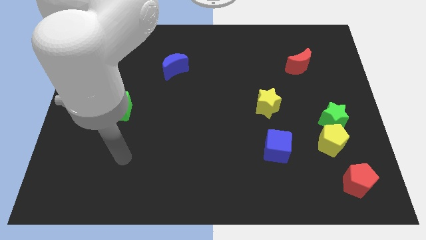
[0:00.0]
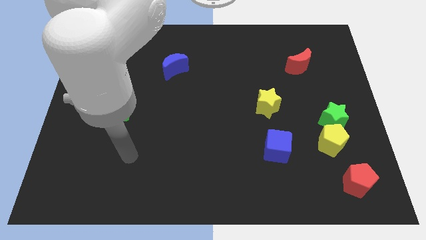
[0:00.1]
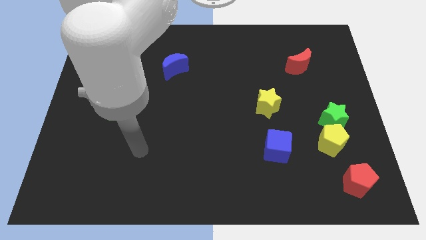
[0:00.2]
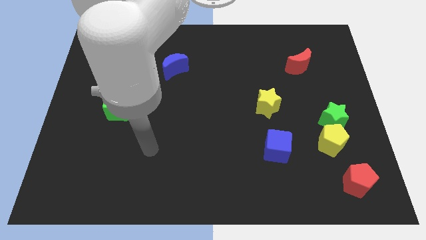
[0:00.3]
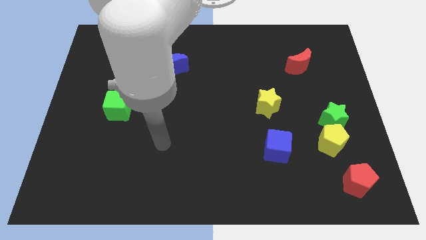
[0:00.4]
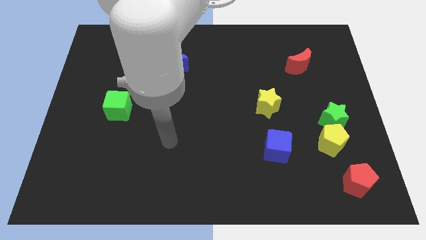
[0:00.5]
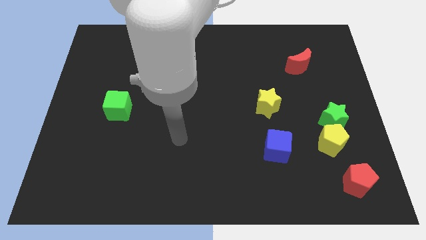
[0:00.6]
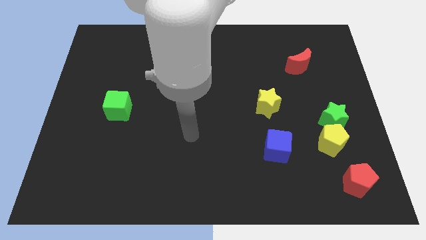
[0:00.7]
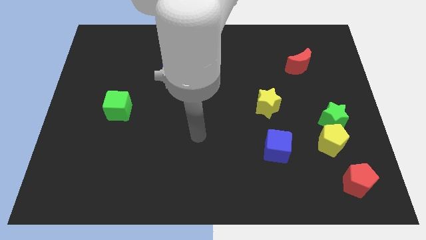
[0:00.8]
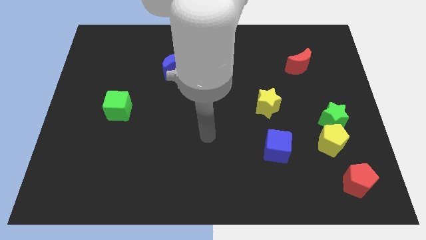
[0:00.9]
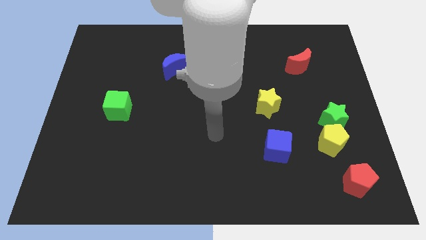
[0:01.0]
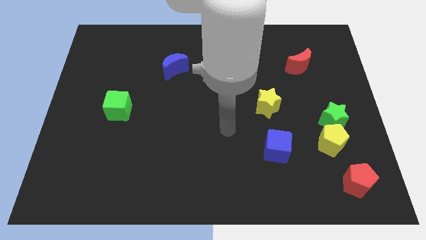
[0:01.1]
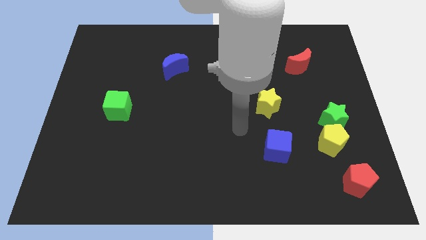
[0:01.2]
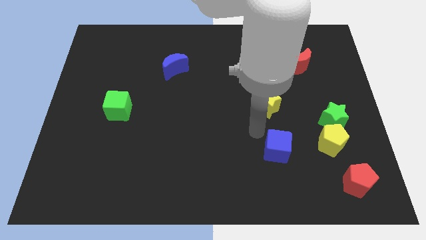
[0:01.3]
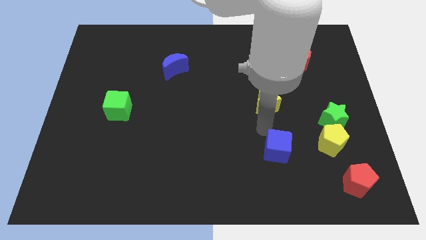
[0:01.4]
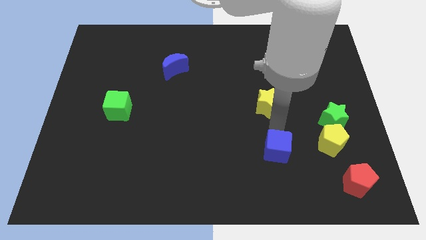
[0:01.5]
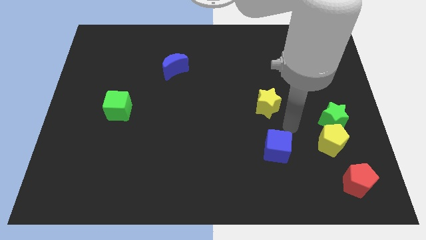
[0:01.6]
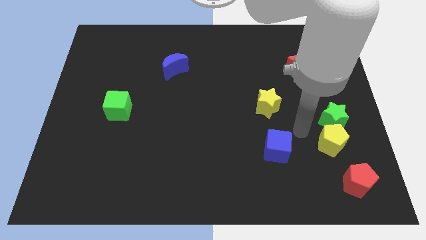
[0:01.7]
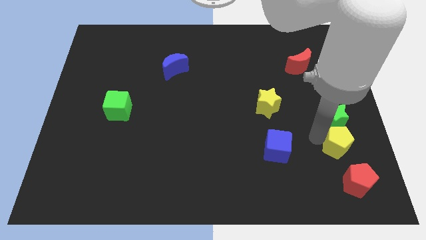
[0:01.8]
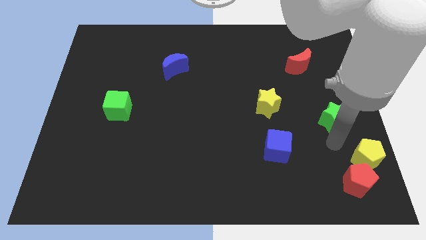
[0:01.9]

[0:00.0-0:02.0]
separate the green star from the yellow pentagon

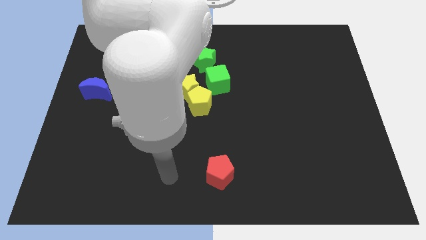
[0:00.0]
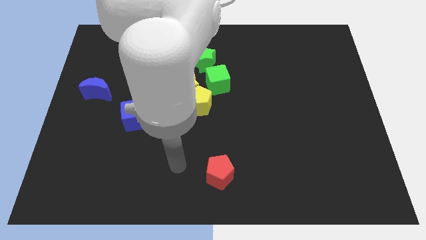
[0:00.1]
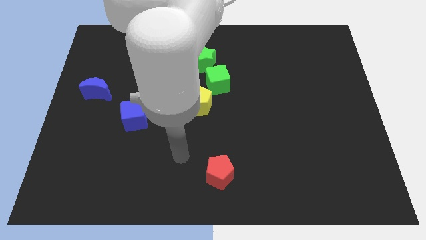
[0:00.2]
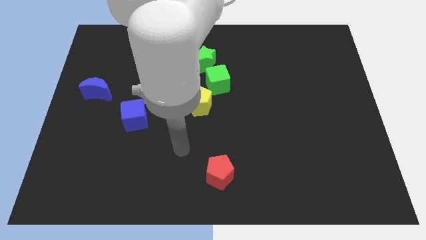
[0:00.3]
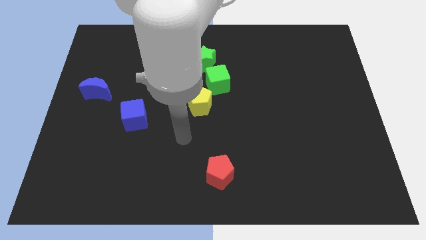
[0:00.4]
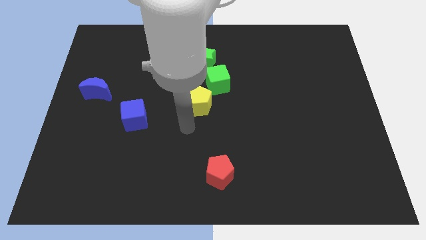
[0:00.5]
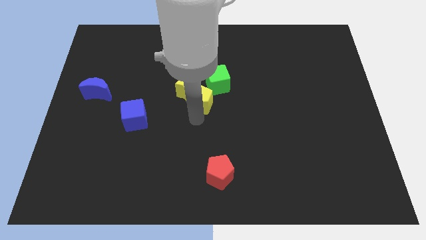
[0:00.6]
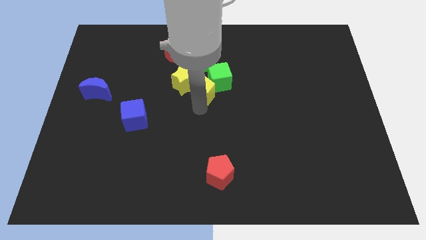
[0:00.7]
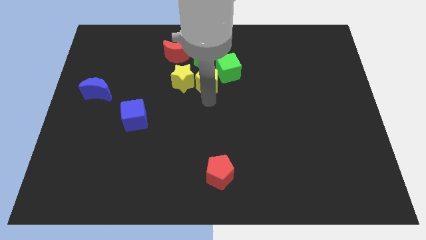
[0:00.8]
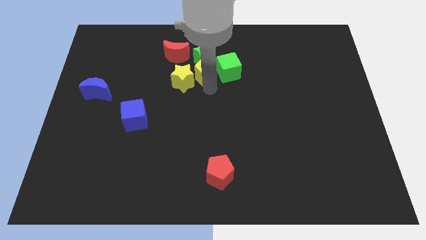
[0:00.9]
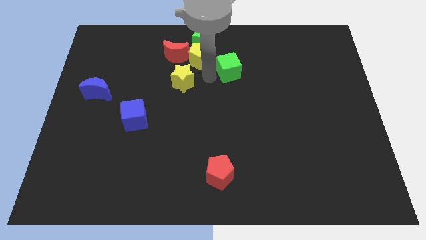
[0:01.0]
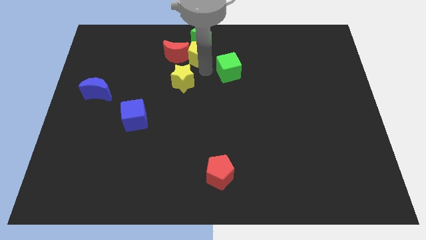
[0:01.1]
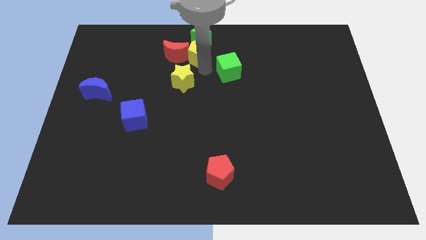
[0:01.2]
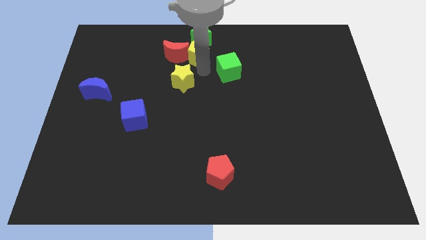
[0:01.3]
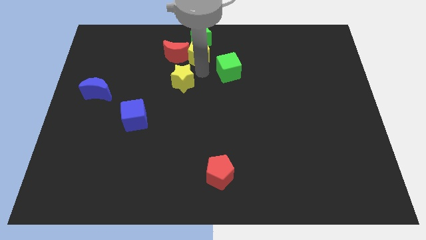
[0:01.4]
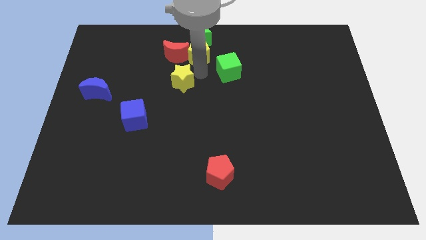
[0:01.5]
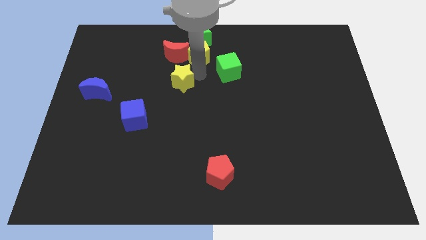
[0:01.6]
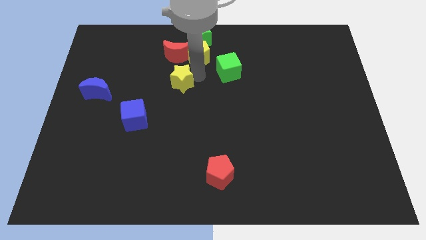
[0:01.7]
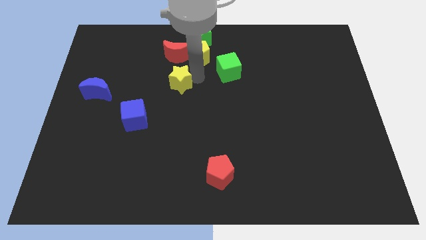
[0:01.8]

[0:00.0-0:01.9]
separate the yellow star from the yellow pentagon and green cube

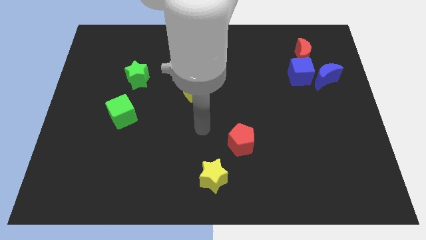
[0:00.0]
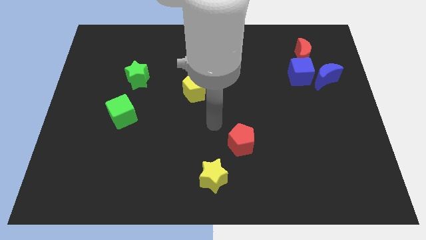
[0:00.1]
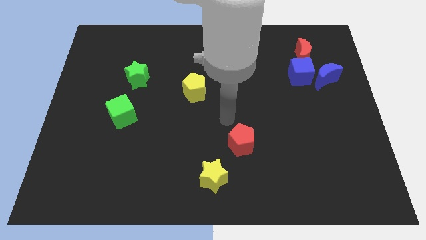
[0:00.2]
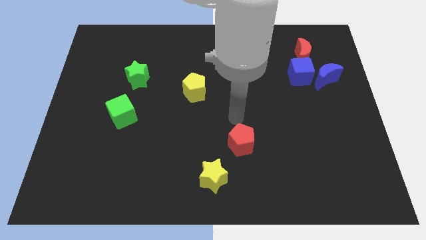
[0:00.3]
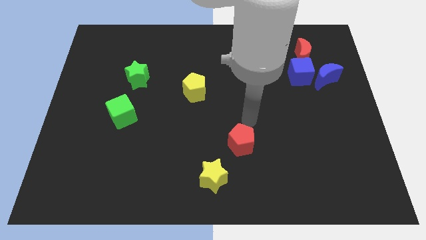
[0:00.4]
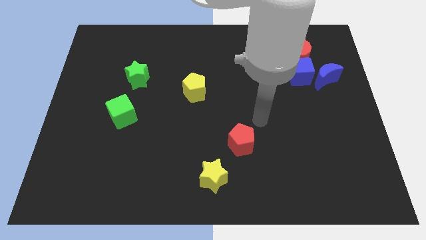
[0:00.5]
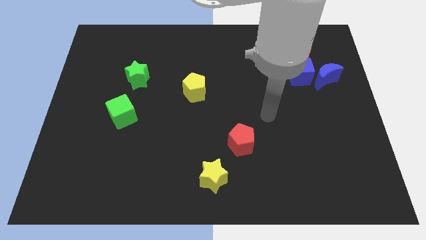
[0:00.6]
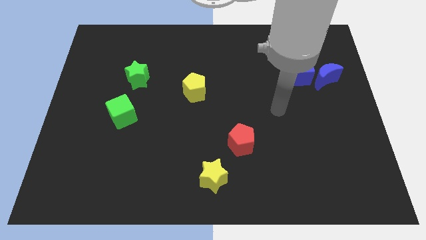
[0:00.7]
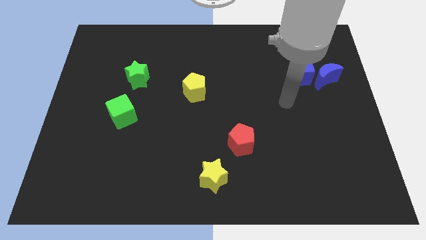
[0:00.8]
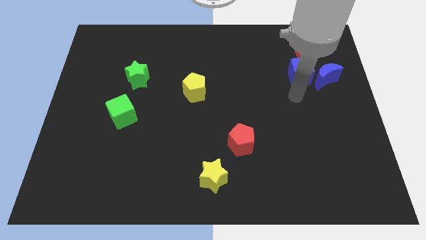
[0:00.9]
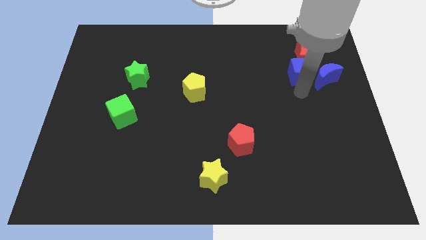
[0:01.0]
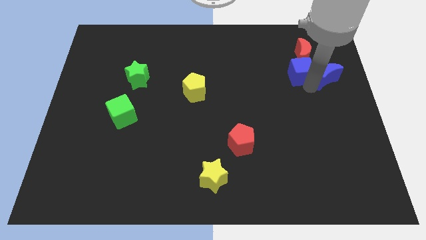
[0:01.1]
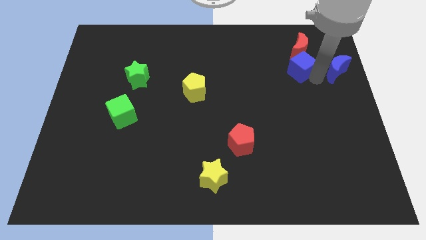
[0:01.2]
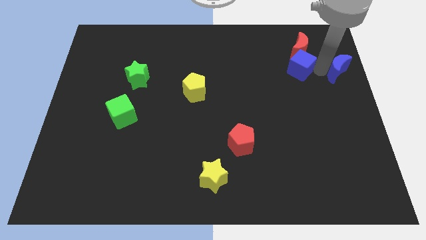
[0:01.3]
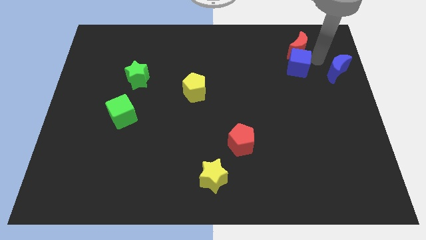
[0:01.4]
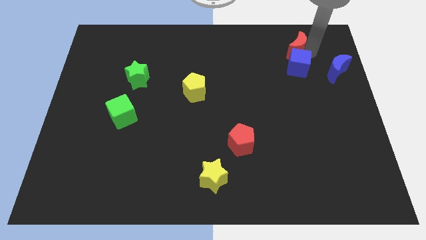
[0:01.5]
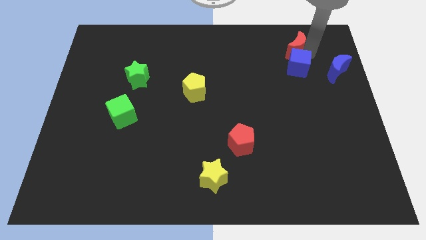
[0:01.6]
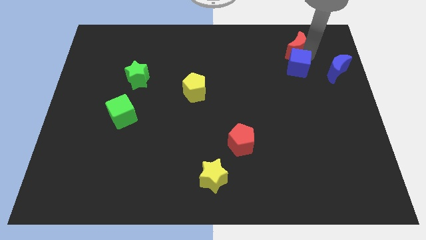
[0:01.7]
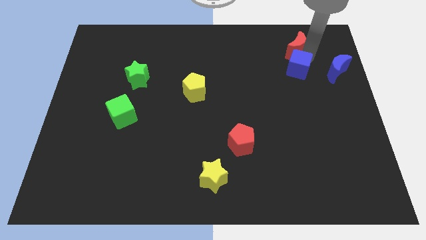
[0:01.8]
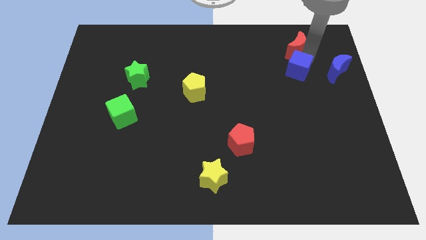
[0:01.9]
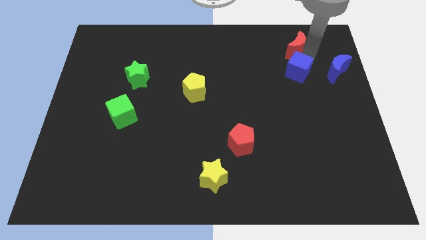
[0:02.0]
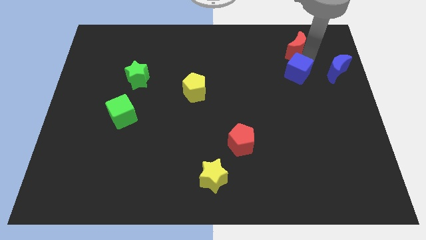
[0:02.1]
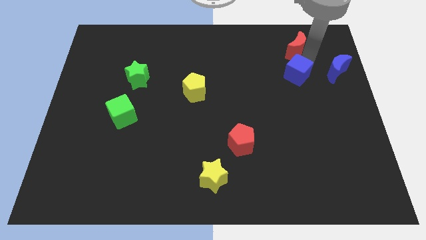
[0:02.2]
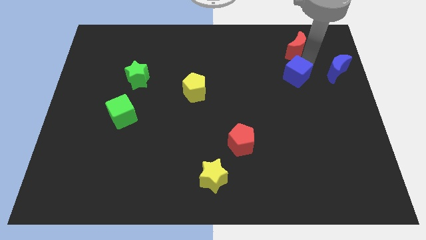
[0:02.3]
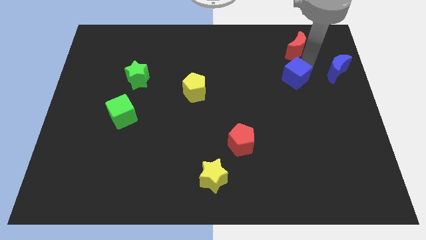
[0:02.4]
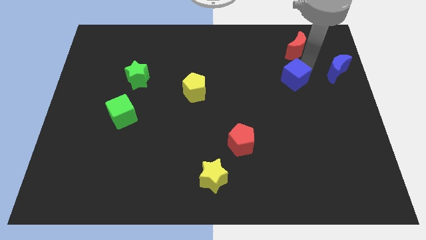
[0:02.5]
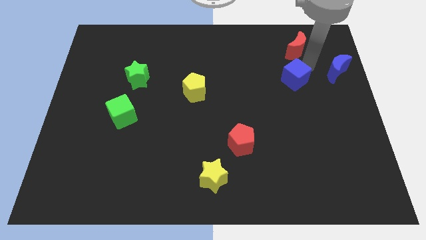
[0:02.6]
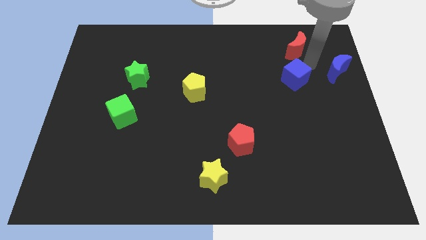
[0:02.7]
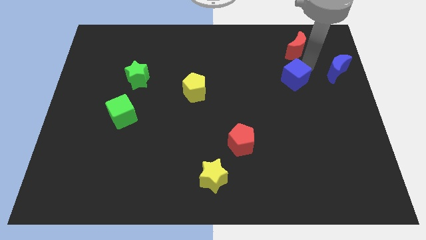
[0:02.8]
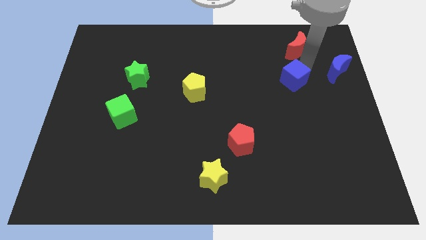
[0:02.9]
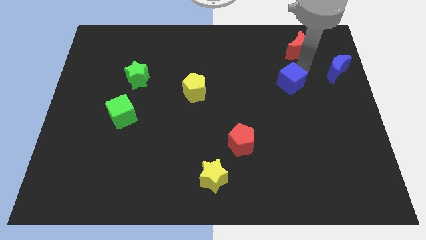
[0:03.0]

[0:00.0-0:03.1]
pull the blue cube apart from the blue moon and red moon

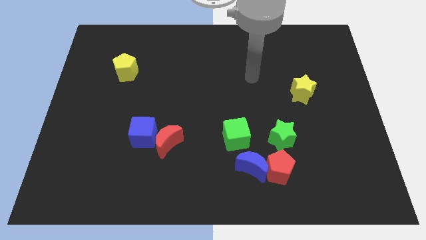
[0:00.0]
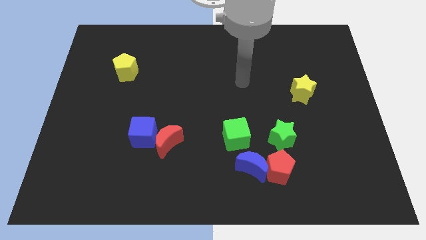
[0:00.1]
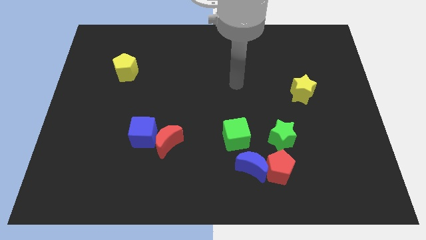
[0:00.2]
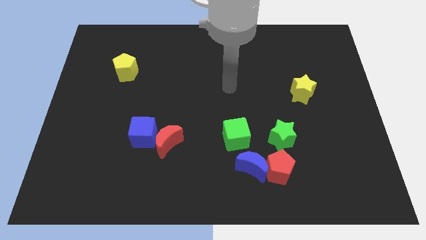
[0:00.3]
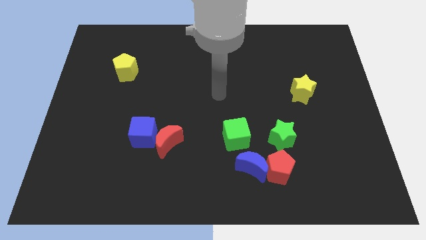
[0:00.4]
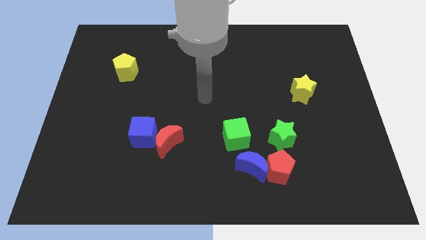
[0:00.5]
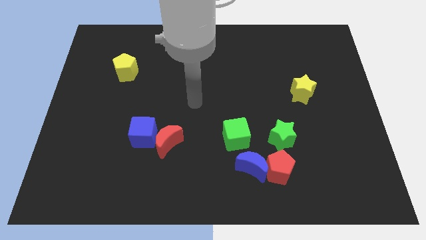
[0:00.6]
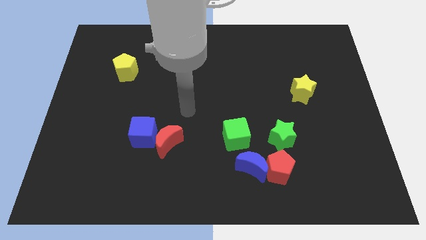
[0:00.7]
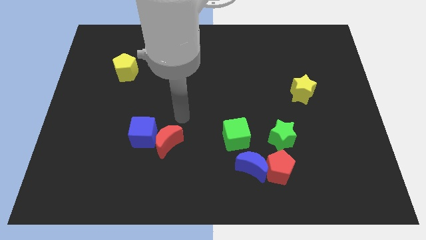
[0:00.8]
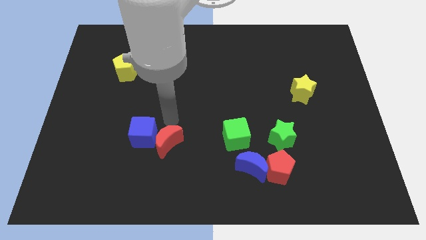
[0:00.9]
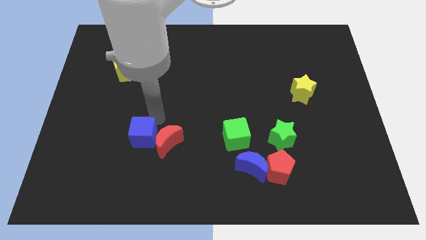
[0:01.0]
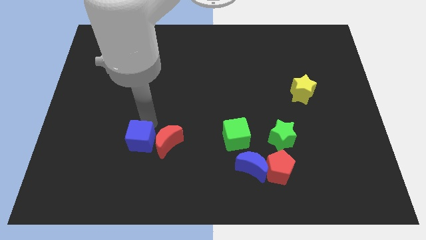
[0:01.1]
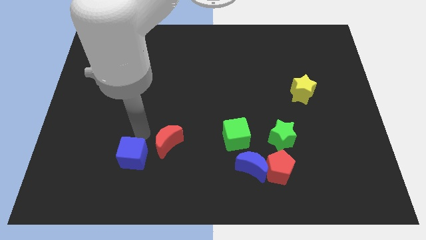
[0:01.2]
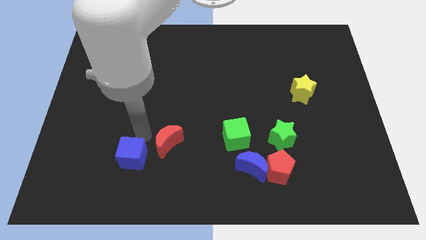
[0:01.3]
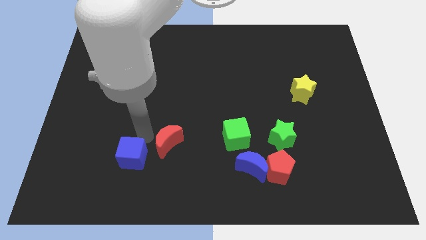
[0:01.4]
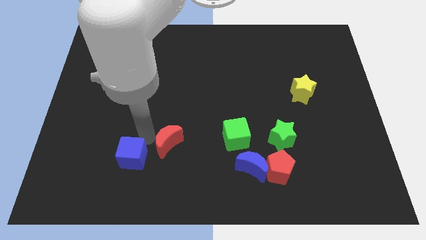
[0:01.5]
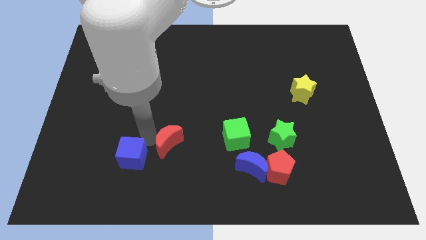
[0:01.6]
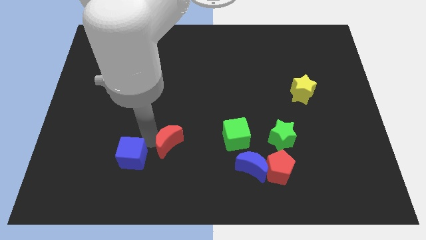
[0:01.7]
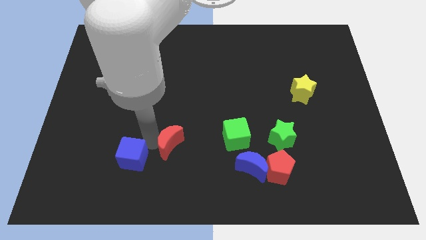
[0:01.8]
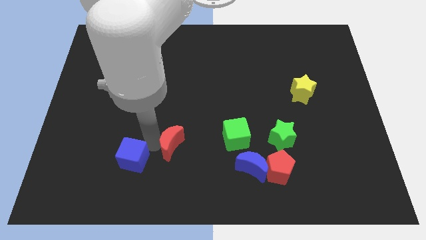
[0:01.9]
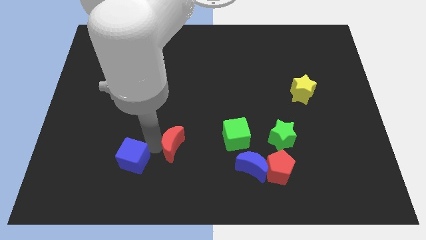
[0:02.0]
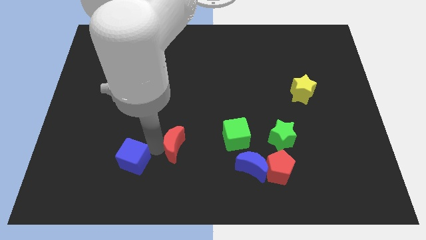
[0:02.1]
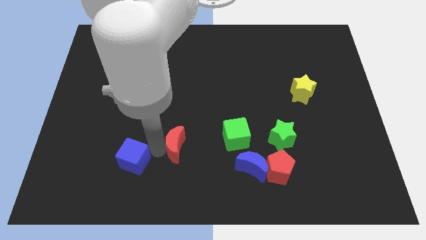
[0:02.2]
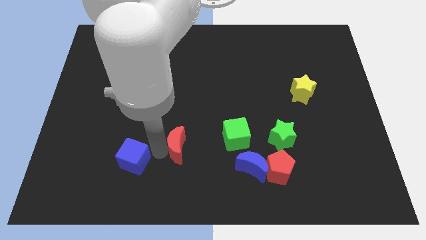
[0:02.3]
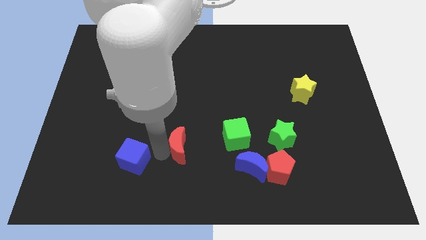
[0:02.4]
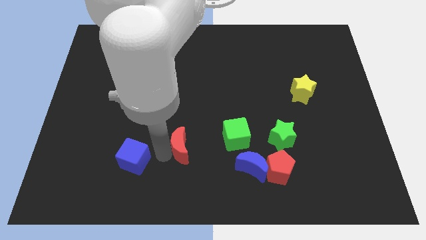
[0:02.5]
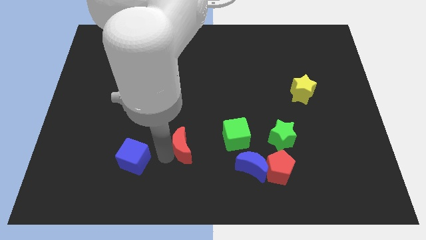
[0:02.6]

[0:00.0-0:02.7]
separate the red moon from the blue cube
